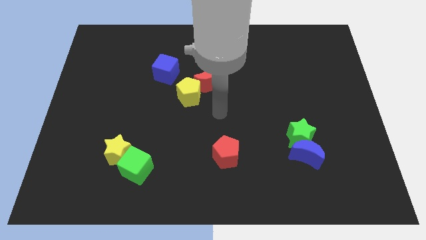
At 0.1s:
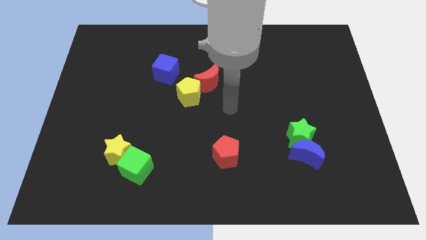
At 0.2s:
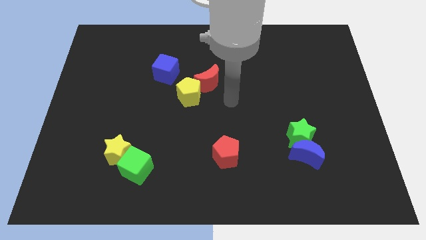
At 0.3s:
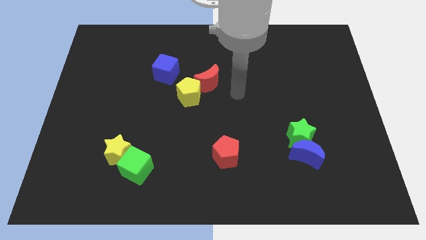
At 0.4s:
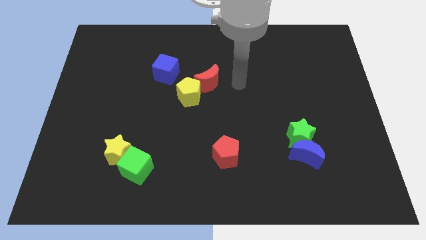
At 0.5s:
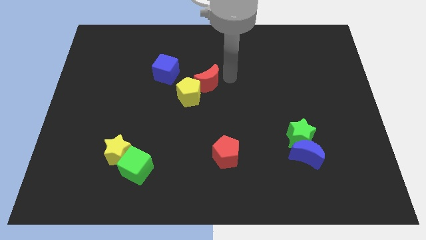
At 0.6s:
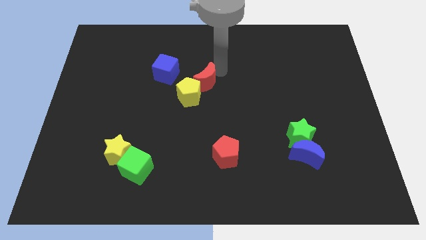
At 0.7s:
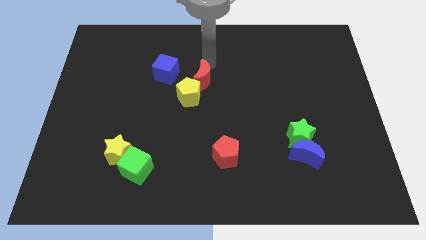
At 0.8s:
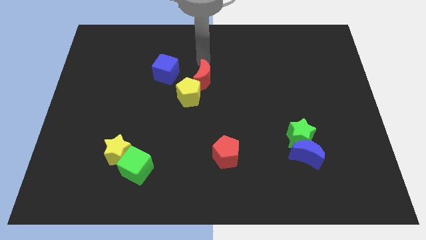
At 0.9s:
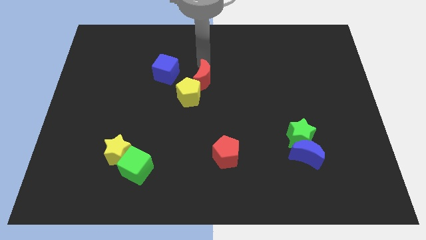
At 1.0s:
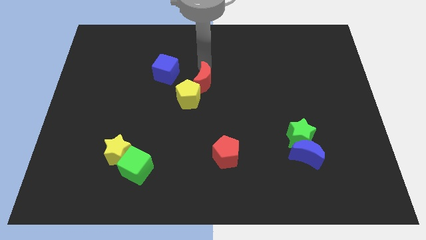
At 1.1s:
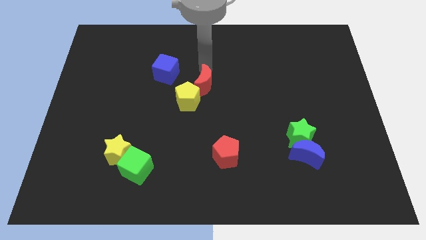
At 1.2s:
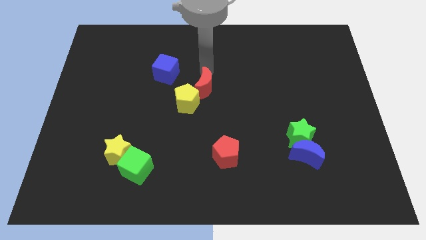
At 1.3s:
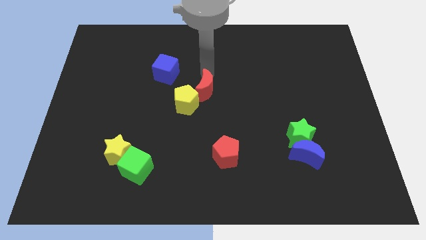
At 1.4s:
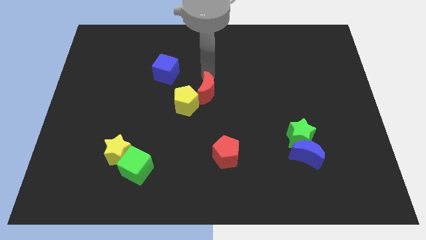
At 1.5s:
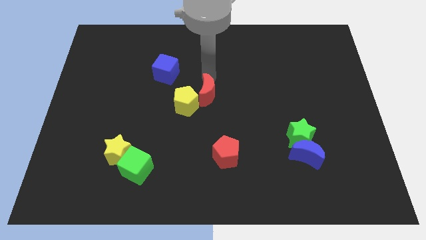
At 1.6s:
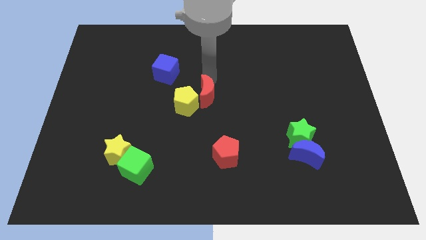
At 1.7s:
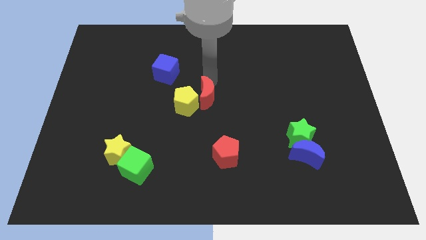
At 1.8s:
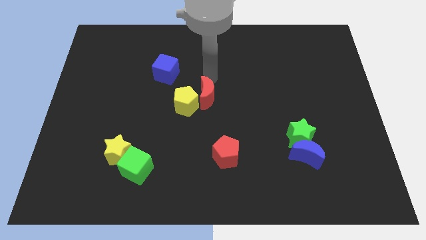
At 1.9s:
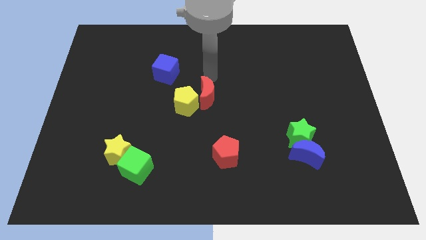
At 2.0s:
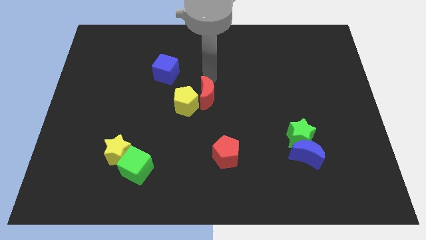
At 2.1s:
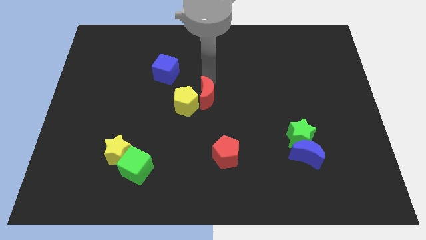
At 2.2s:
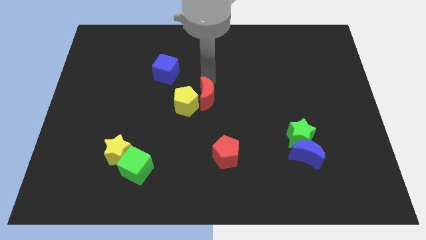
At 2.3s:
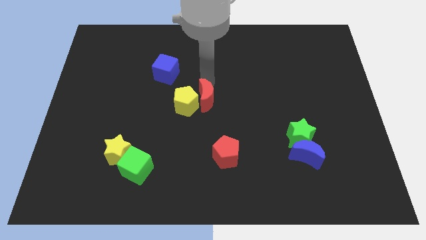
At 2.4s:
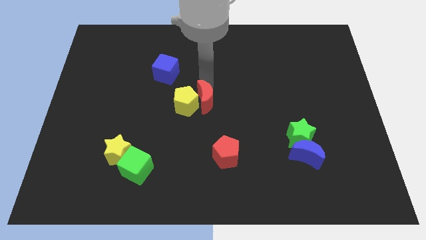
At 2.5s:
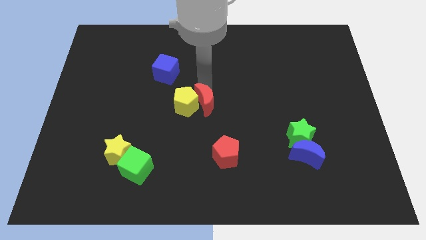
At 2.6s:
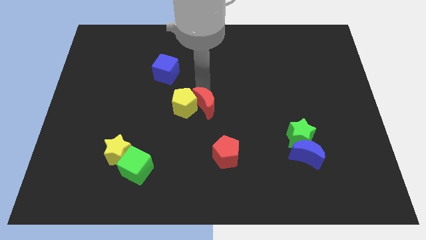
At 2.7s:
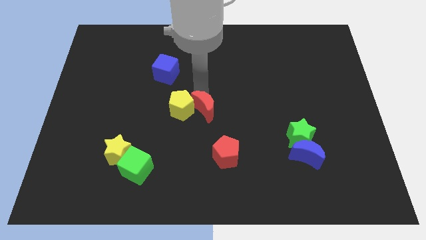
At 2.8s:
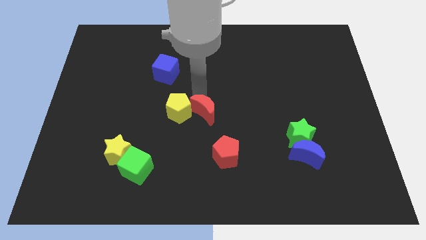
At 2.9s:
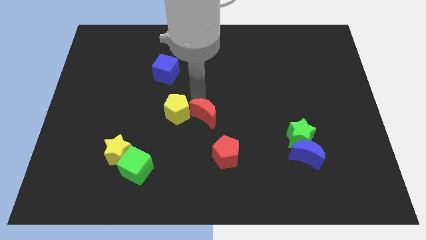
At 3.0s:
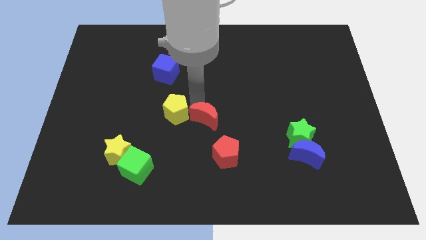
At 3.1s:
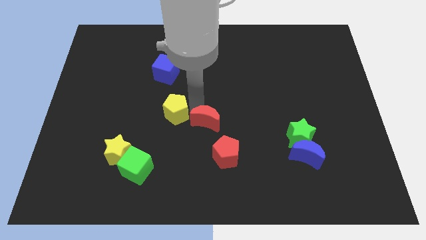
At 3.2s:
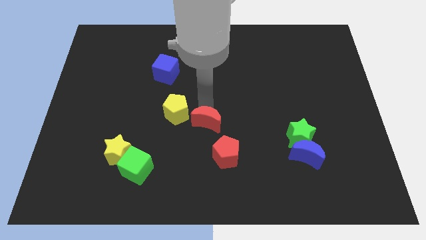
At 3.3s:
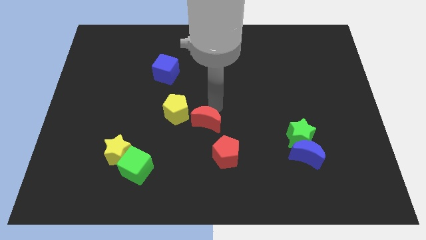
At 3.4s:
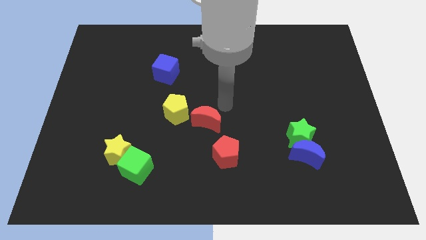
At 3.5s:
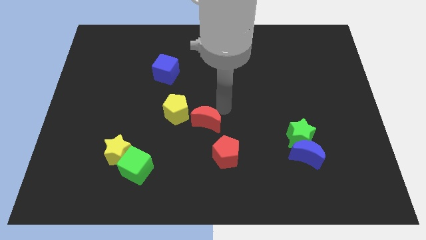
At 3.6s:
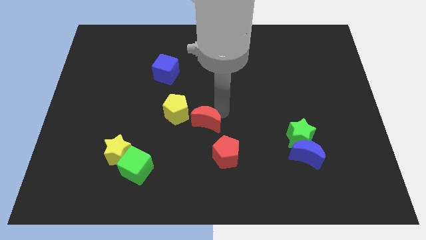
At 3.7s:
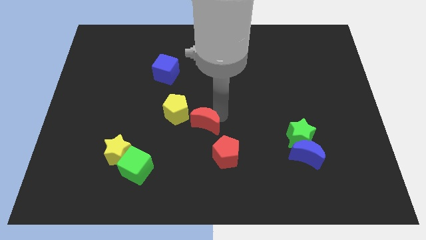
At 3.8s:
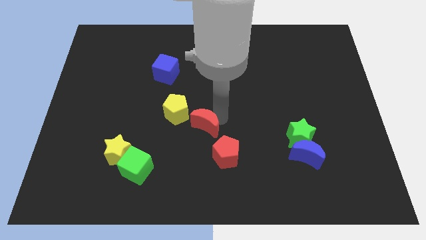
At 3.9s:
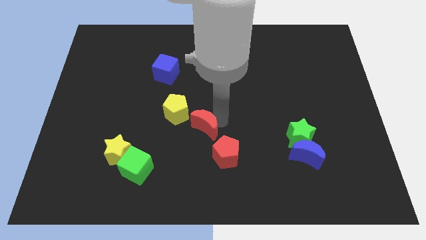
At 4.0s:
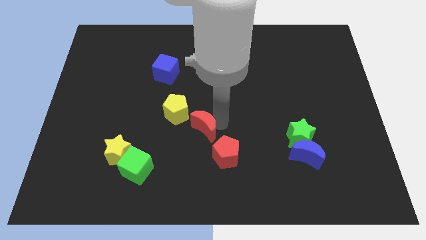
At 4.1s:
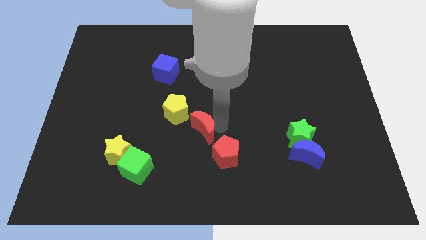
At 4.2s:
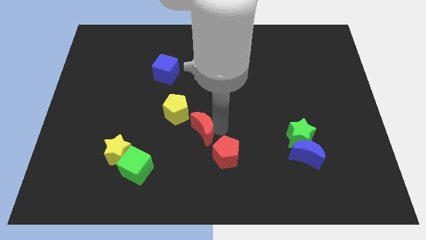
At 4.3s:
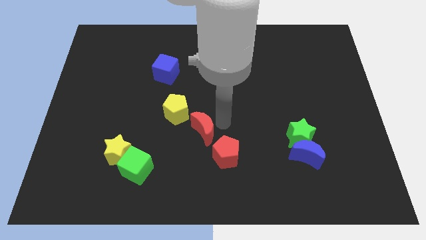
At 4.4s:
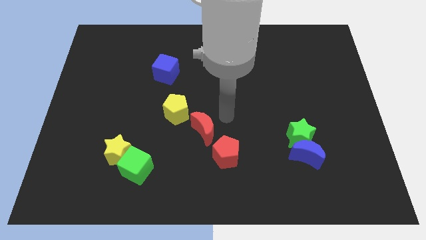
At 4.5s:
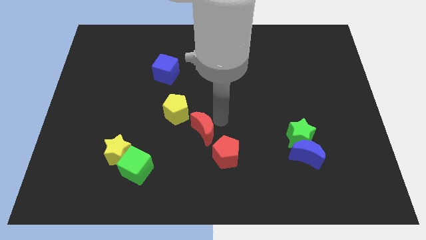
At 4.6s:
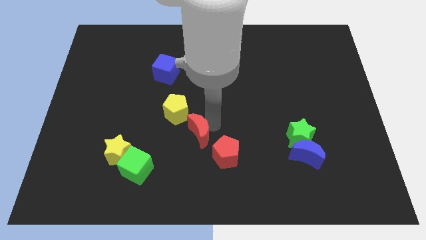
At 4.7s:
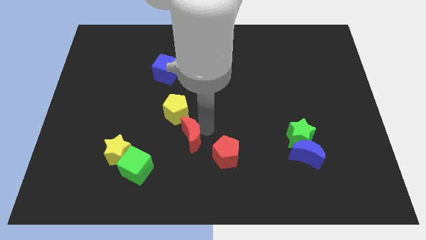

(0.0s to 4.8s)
push the red moon below the yellow pentagon

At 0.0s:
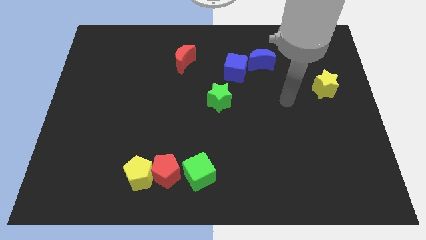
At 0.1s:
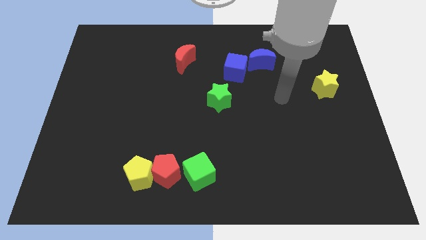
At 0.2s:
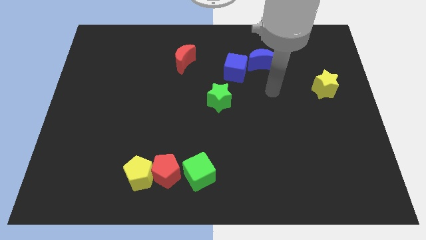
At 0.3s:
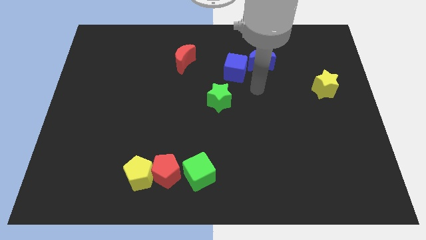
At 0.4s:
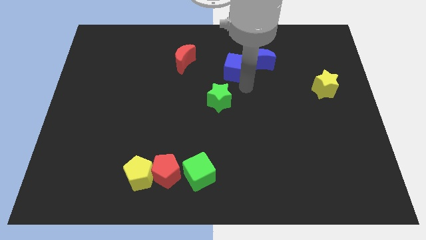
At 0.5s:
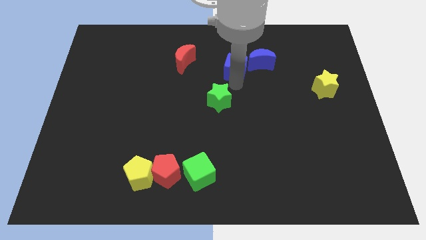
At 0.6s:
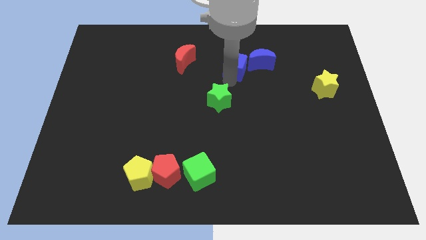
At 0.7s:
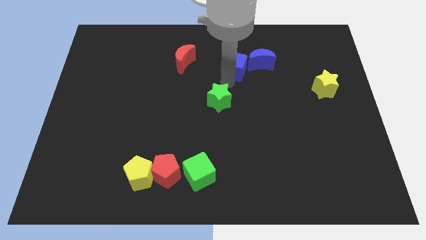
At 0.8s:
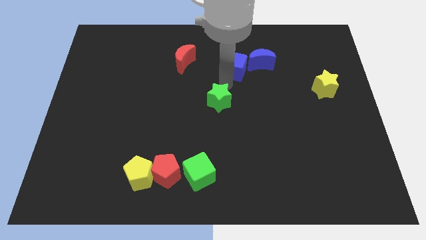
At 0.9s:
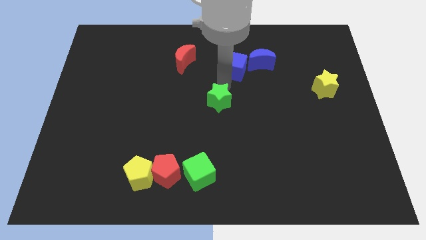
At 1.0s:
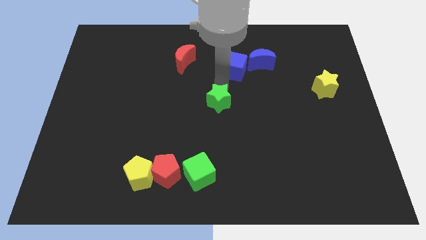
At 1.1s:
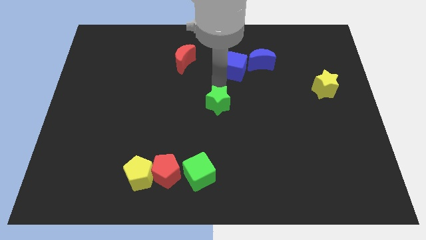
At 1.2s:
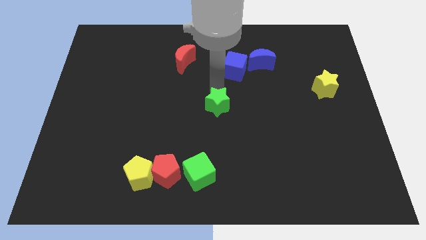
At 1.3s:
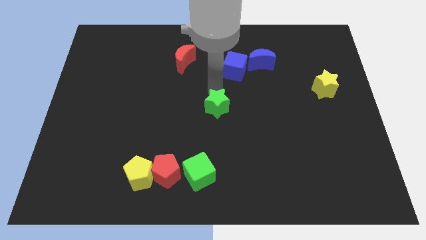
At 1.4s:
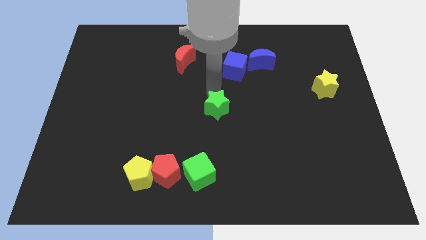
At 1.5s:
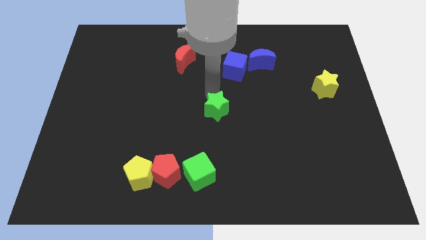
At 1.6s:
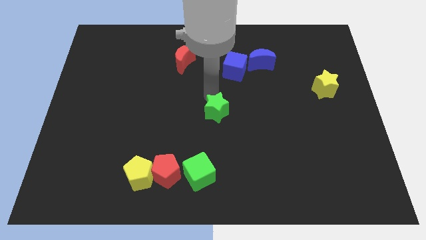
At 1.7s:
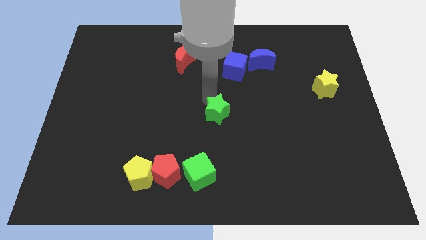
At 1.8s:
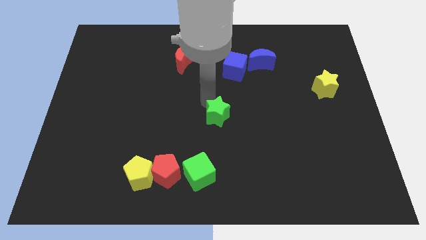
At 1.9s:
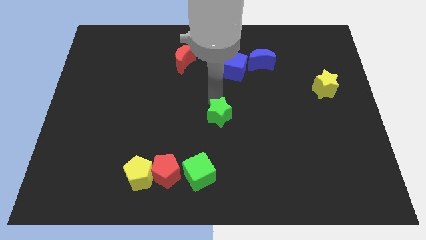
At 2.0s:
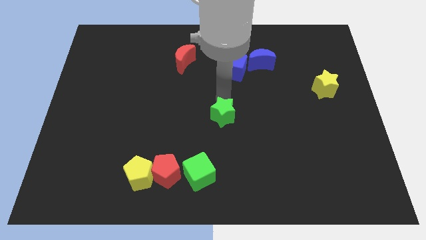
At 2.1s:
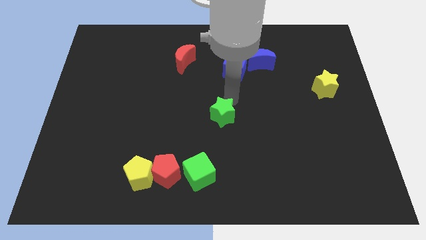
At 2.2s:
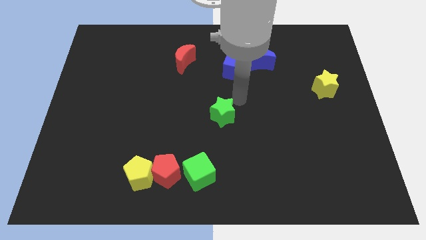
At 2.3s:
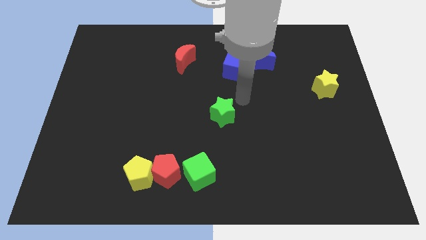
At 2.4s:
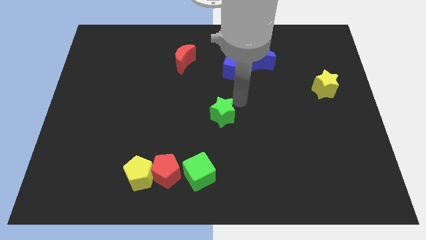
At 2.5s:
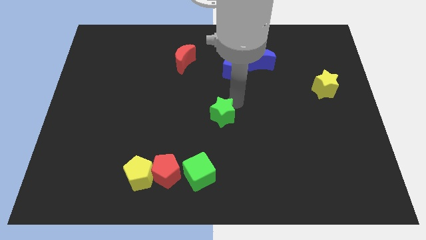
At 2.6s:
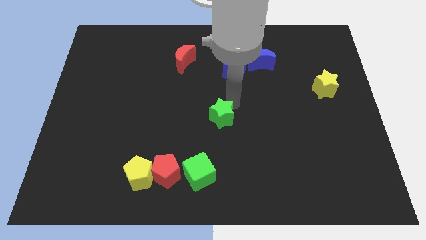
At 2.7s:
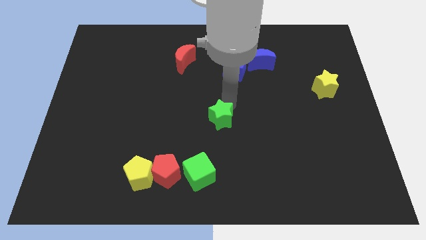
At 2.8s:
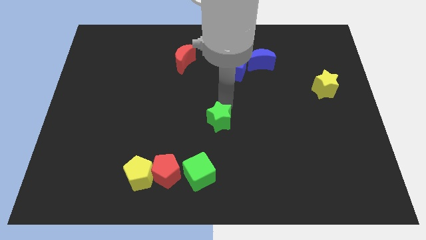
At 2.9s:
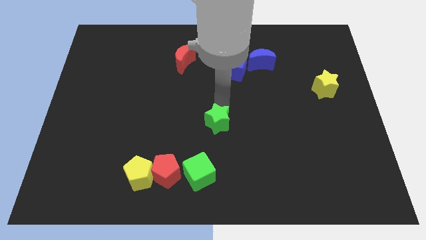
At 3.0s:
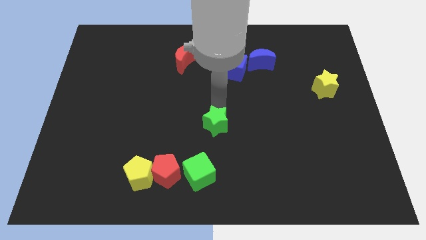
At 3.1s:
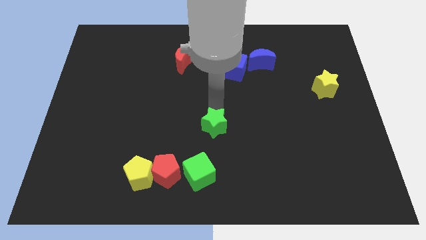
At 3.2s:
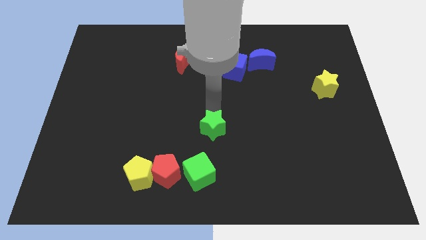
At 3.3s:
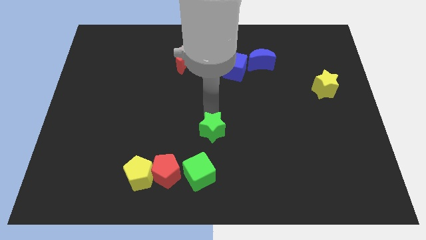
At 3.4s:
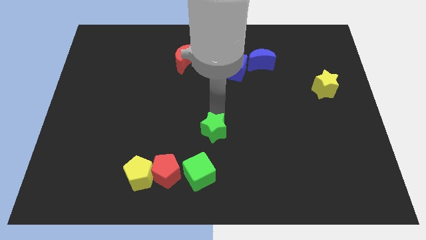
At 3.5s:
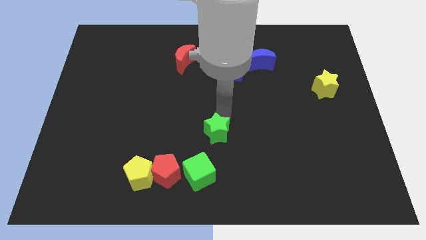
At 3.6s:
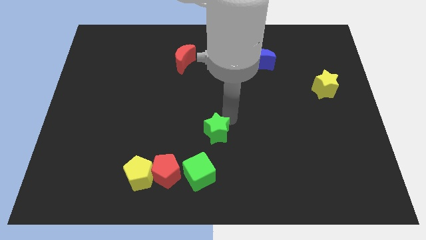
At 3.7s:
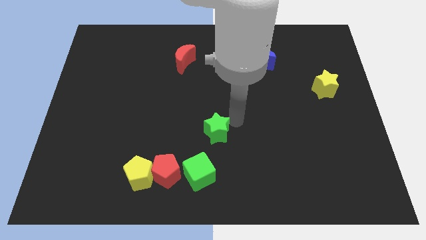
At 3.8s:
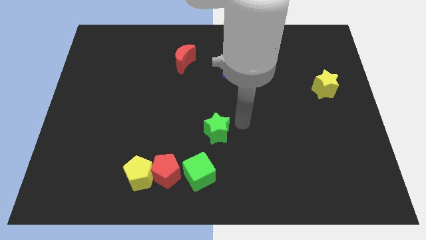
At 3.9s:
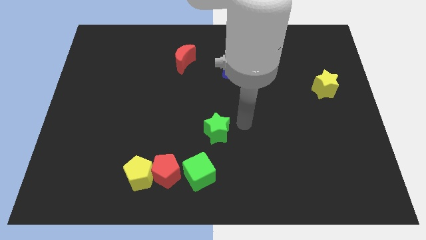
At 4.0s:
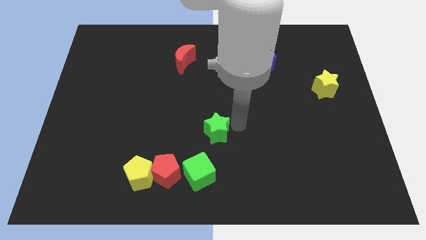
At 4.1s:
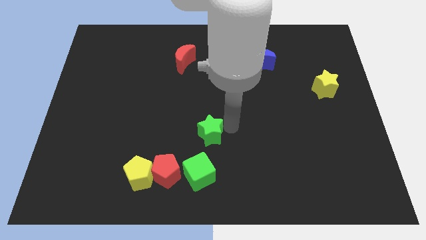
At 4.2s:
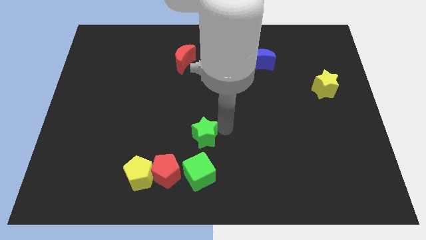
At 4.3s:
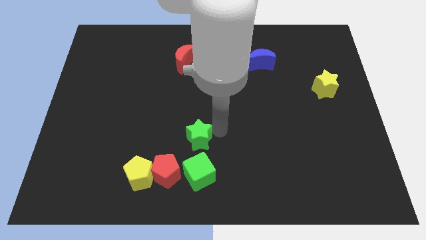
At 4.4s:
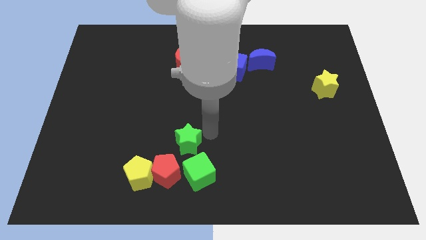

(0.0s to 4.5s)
push the green star to the top right of the yellow pentagon
